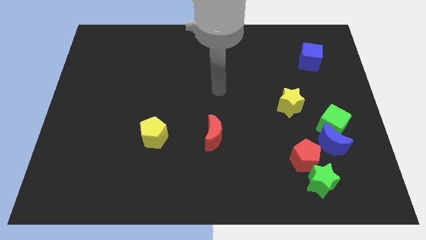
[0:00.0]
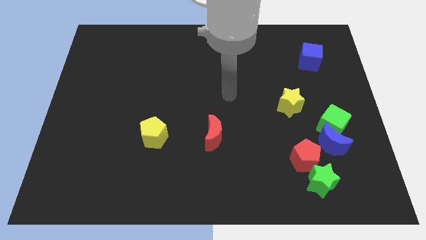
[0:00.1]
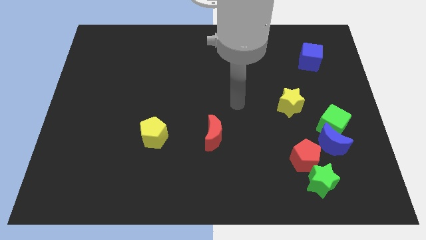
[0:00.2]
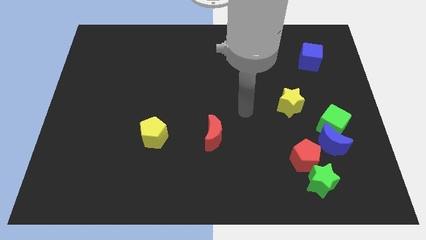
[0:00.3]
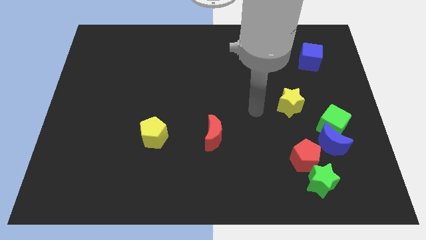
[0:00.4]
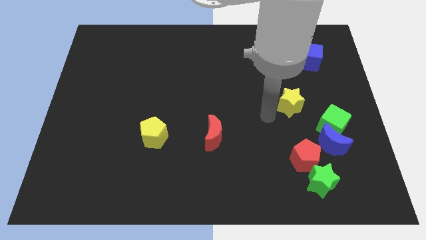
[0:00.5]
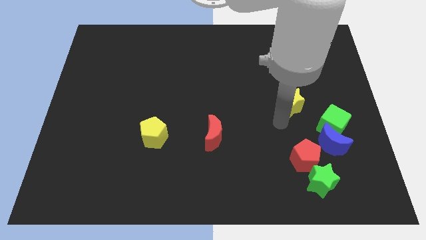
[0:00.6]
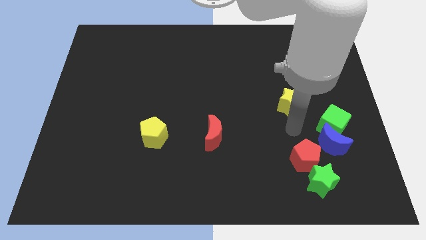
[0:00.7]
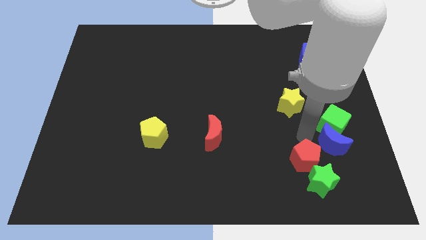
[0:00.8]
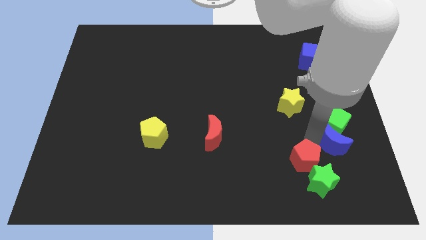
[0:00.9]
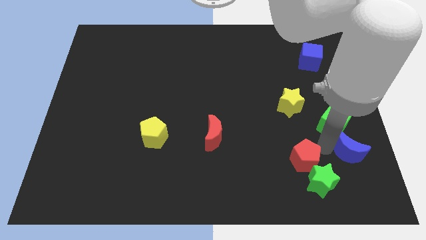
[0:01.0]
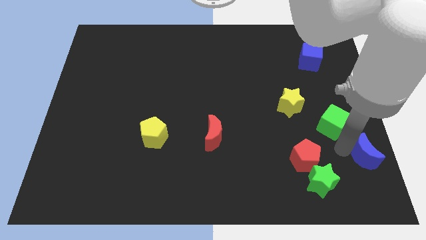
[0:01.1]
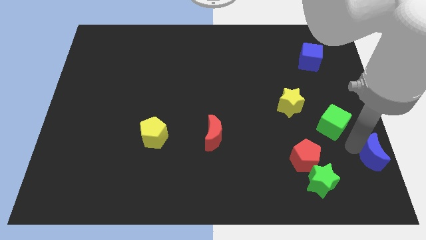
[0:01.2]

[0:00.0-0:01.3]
move the green cube away from the blue moon

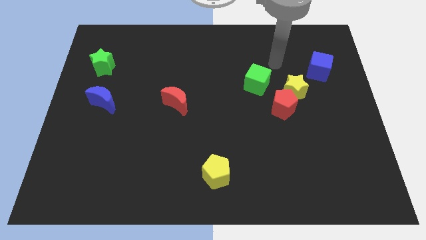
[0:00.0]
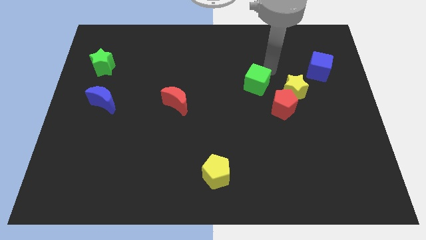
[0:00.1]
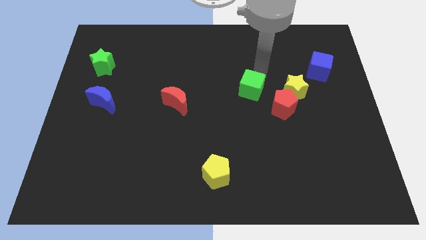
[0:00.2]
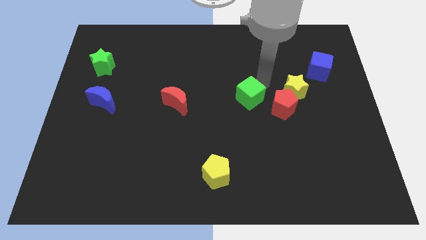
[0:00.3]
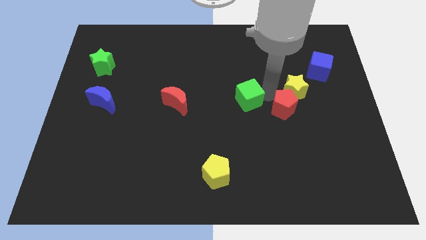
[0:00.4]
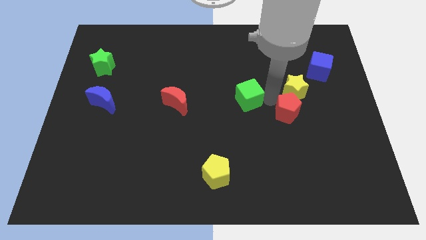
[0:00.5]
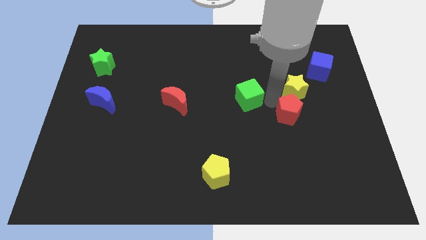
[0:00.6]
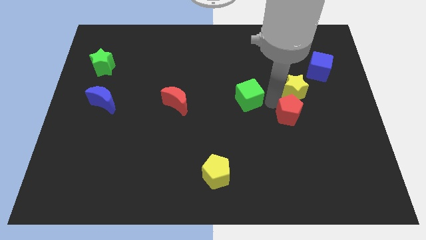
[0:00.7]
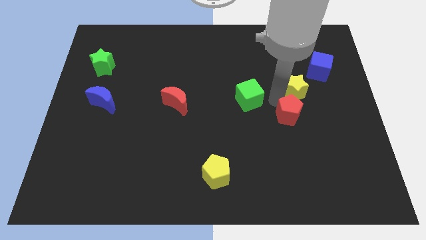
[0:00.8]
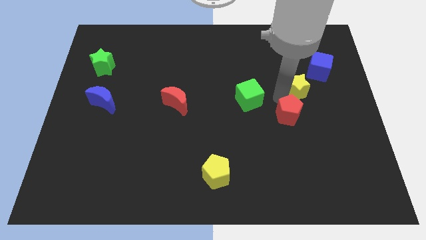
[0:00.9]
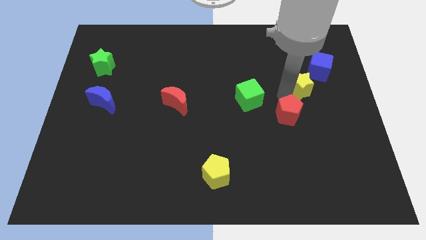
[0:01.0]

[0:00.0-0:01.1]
move the yellow star away from the red pentagon and green cube

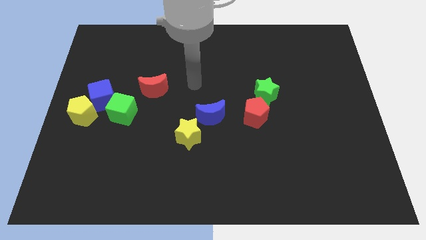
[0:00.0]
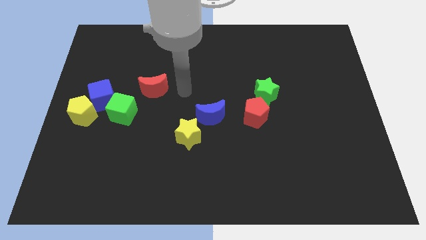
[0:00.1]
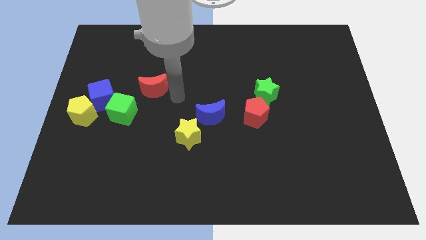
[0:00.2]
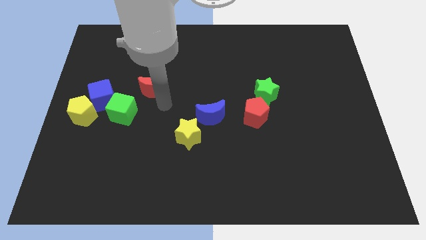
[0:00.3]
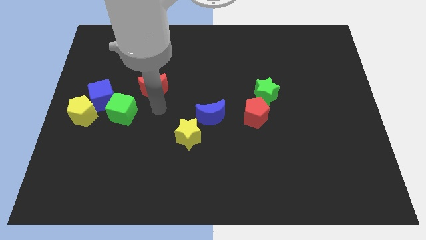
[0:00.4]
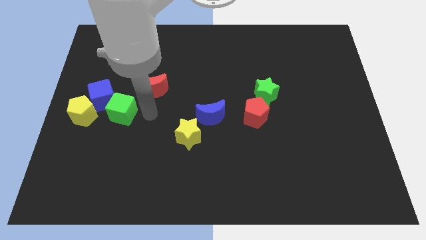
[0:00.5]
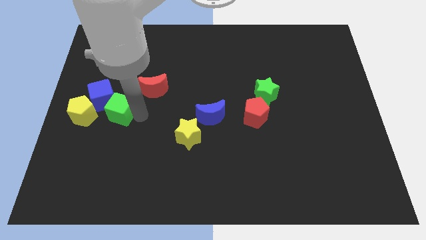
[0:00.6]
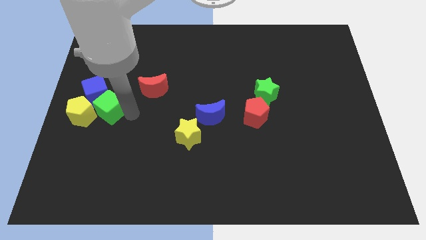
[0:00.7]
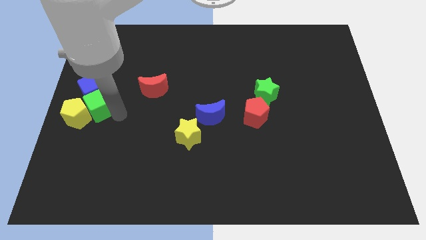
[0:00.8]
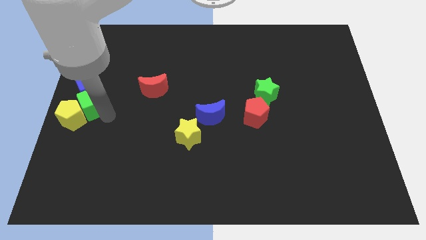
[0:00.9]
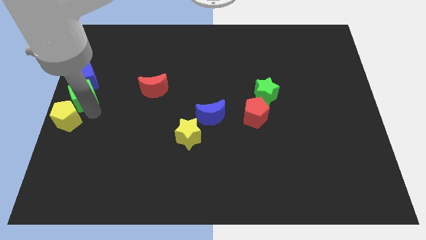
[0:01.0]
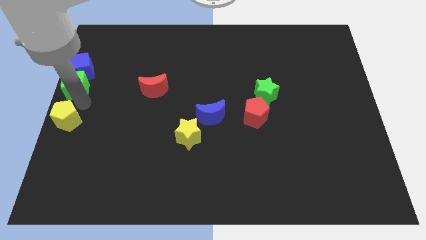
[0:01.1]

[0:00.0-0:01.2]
pull the blue cube apart from the yellow pentagon and green cube

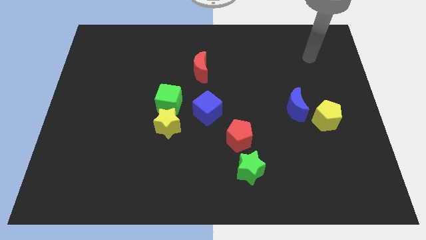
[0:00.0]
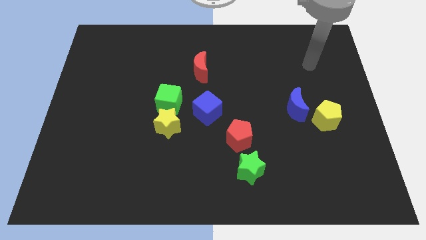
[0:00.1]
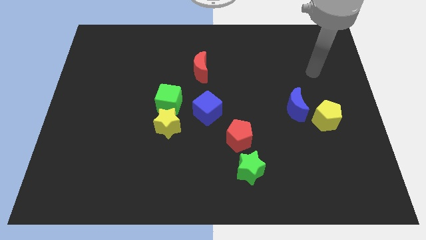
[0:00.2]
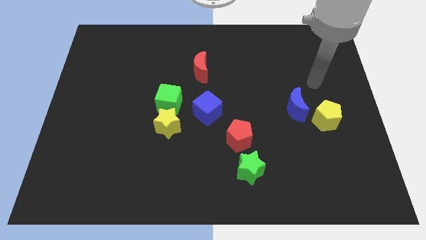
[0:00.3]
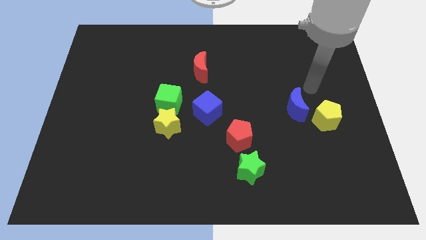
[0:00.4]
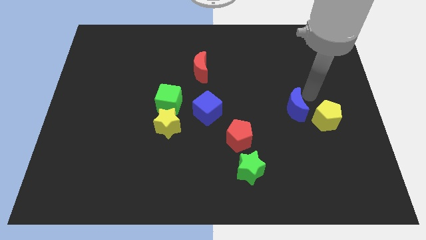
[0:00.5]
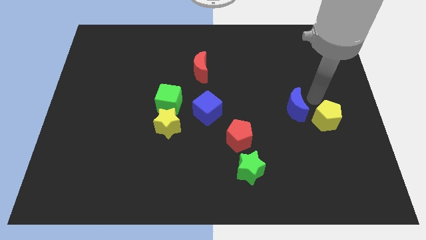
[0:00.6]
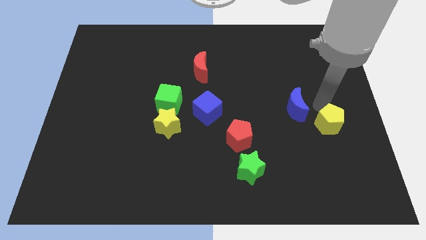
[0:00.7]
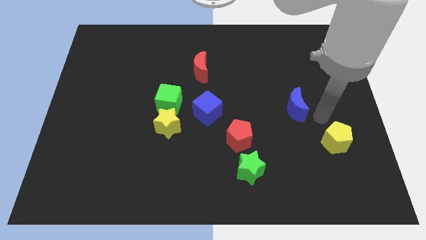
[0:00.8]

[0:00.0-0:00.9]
separate the blue moon from the yellow pentagon

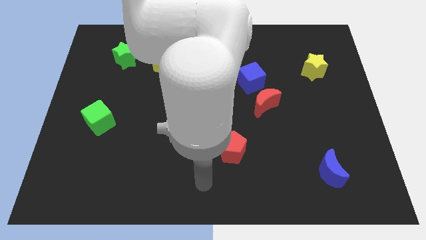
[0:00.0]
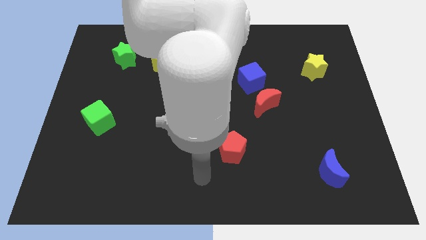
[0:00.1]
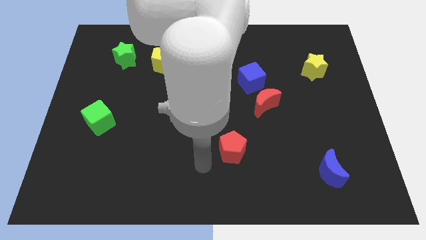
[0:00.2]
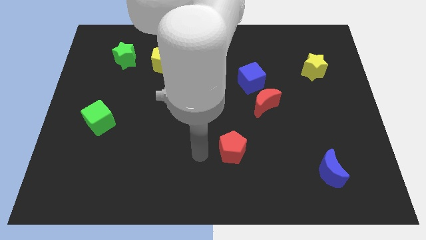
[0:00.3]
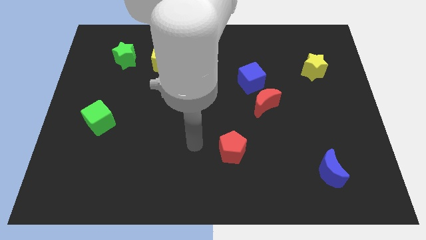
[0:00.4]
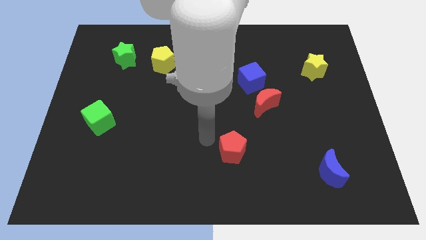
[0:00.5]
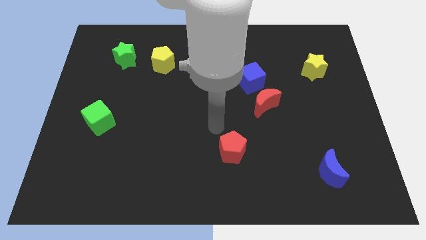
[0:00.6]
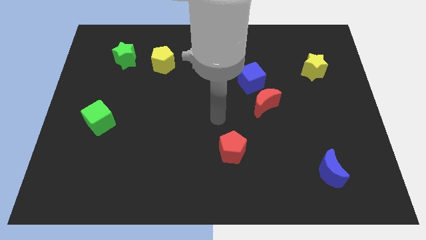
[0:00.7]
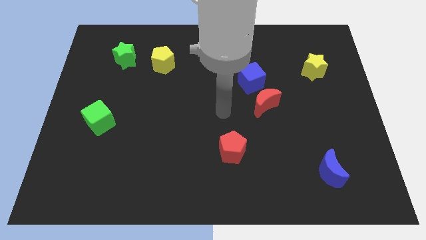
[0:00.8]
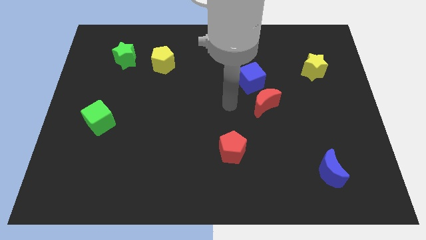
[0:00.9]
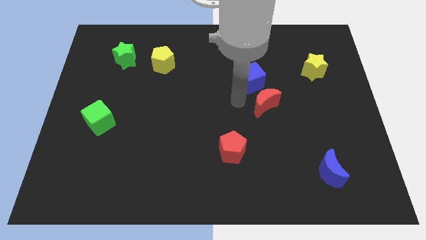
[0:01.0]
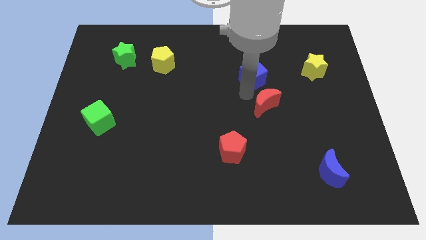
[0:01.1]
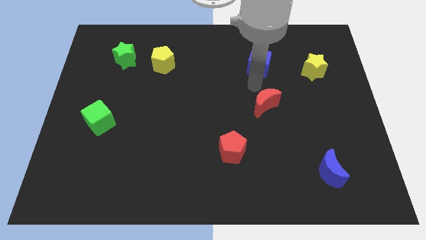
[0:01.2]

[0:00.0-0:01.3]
separate the red moon from the blue cube

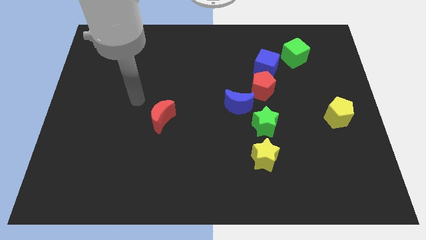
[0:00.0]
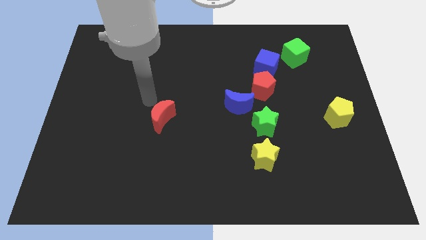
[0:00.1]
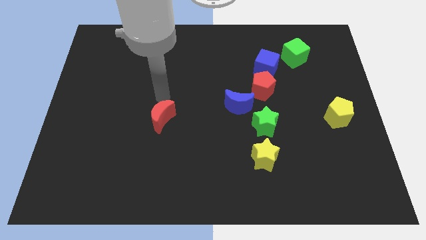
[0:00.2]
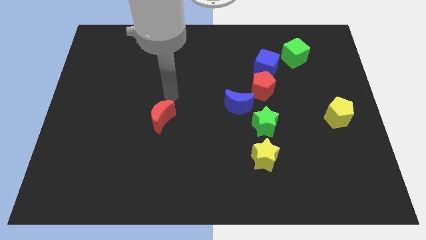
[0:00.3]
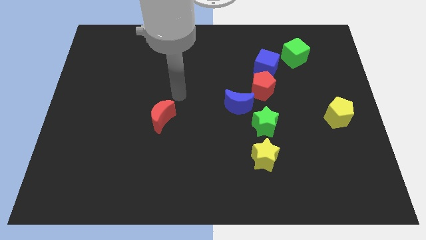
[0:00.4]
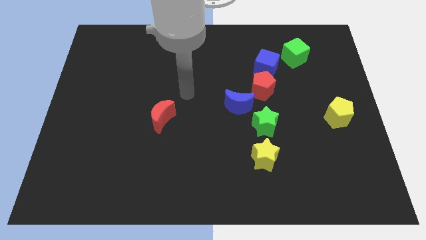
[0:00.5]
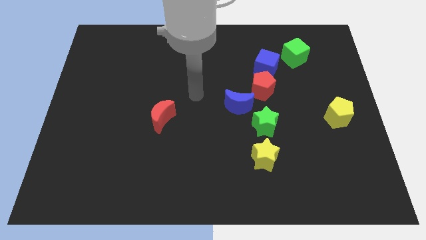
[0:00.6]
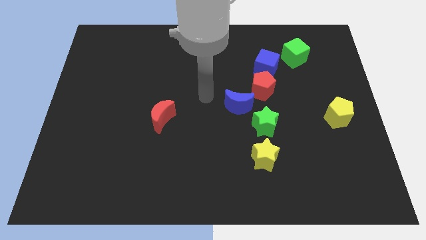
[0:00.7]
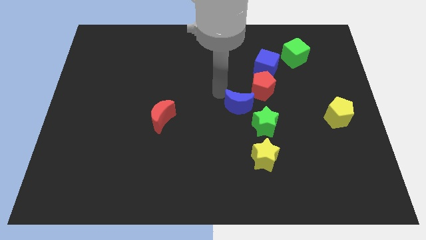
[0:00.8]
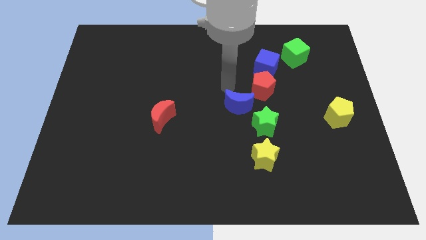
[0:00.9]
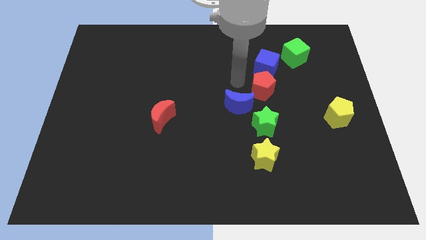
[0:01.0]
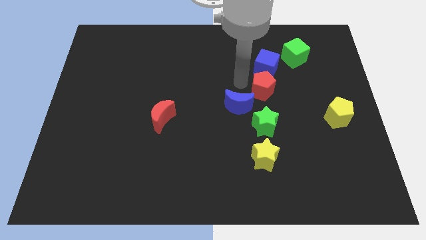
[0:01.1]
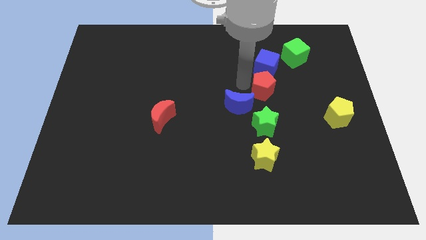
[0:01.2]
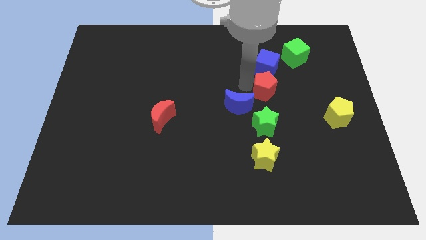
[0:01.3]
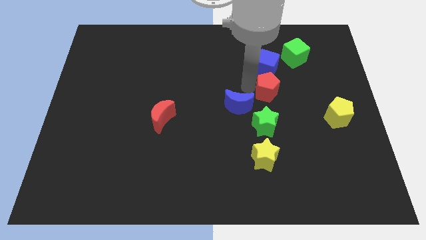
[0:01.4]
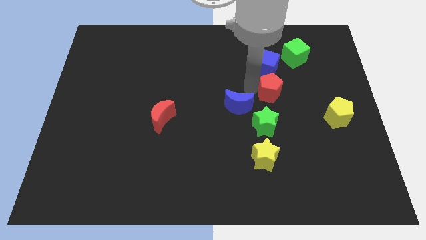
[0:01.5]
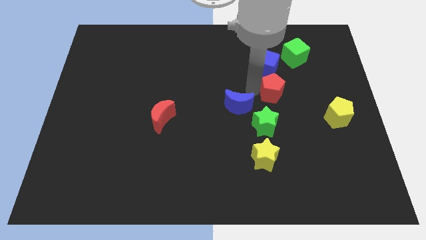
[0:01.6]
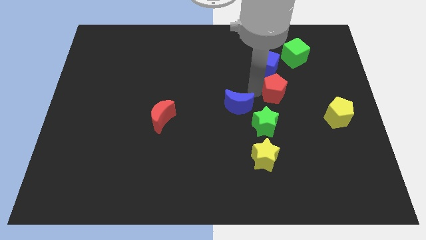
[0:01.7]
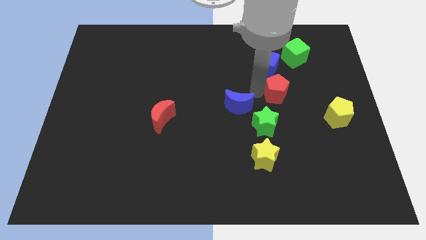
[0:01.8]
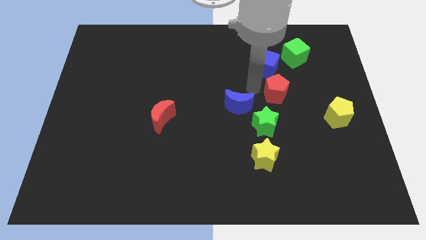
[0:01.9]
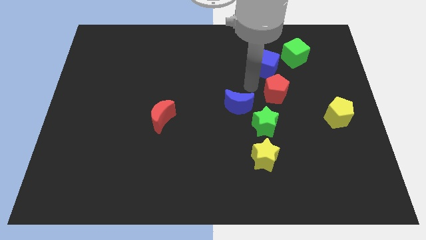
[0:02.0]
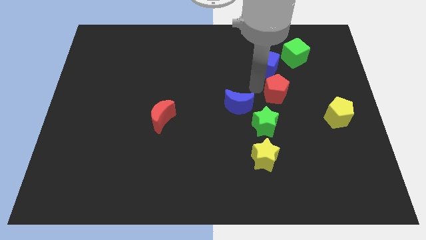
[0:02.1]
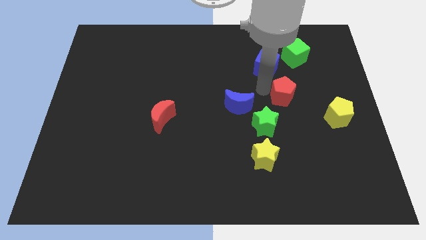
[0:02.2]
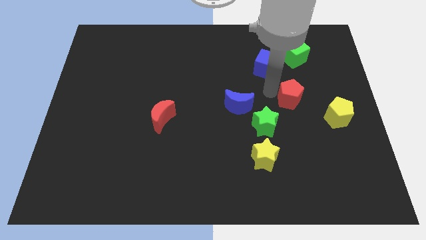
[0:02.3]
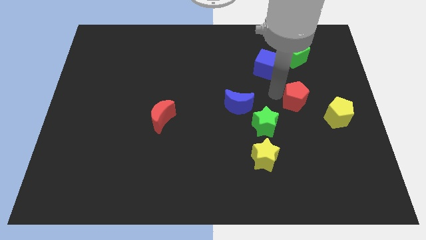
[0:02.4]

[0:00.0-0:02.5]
pull the red pentagon apart from the blue cube and blue moon

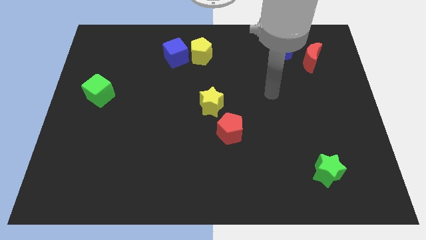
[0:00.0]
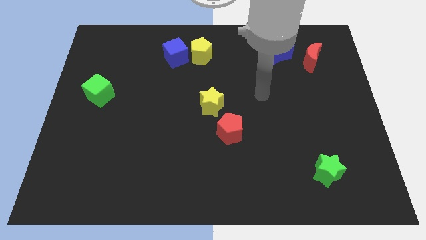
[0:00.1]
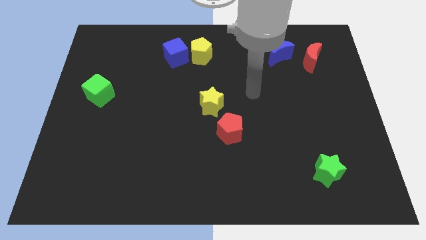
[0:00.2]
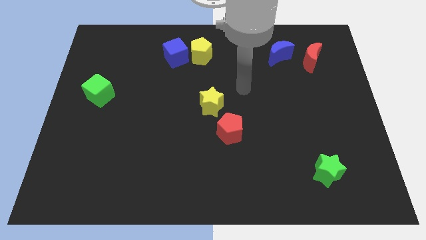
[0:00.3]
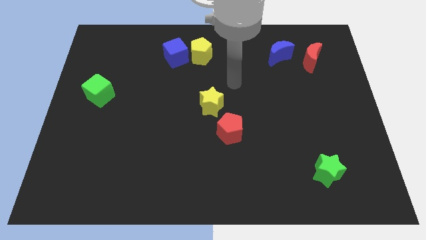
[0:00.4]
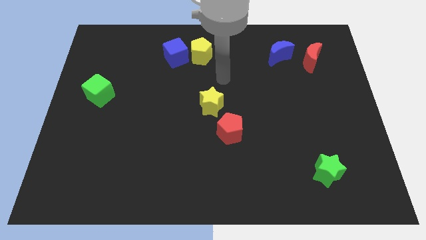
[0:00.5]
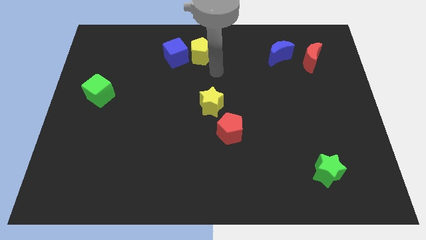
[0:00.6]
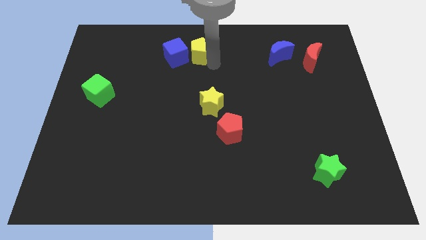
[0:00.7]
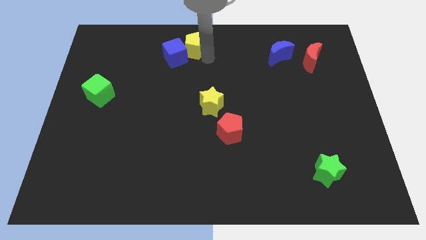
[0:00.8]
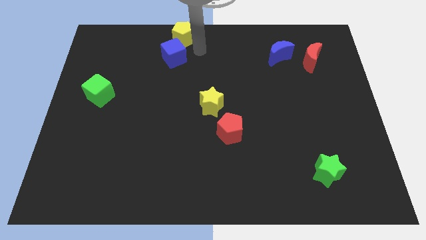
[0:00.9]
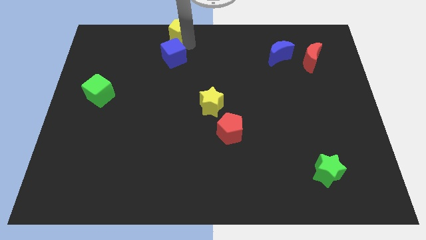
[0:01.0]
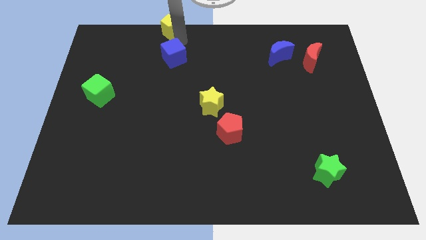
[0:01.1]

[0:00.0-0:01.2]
separate the blue cube from the yellow pentagon
